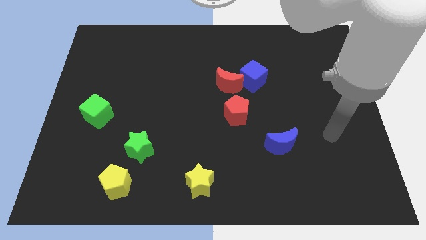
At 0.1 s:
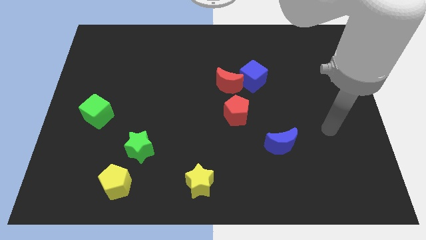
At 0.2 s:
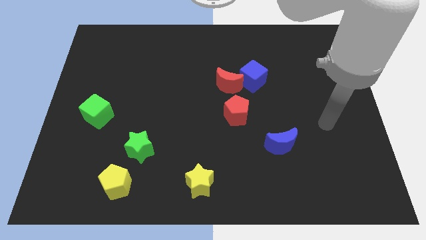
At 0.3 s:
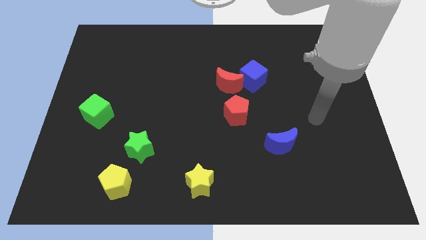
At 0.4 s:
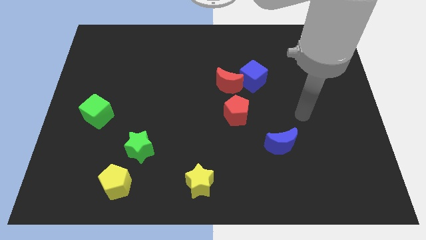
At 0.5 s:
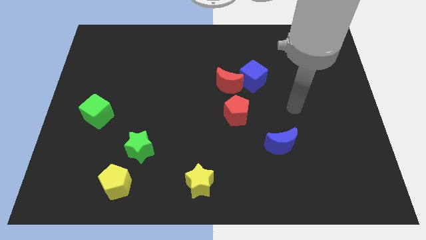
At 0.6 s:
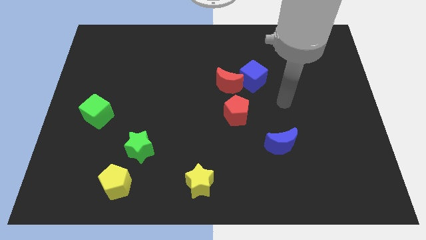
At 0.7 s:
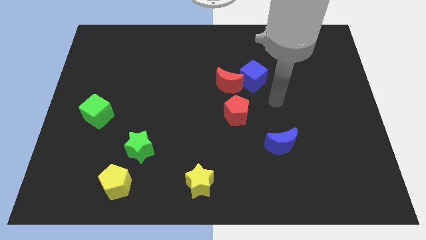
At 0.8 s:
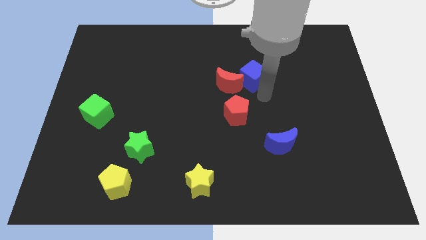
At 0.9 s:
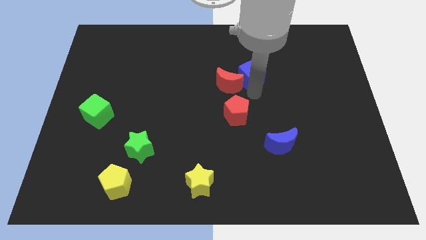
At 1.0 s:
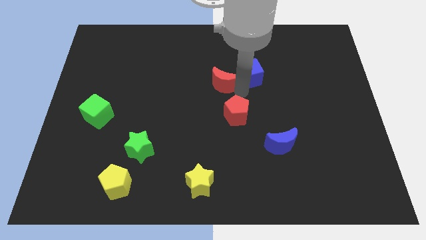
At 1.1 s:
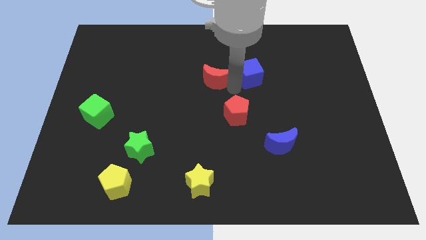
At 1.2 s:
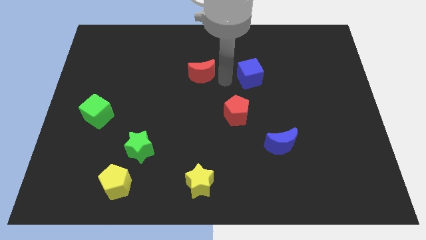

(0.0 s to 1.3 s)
separate the blue cube from the red moon

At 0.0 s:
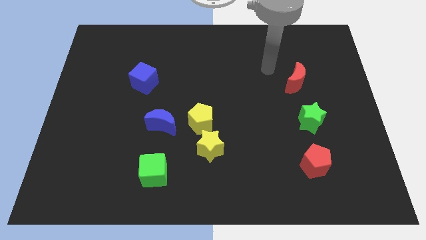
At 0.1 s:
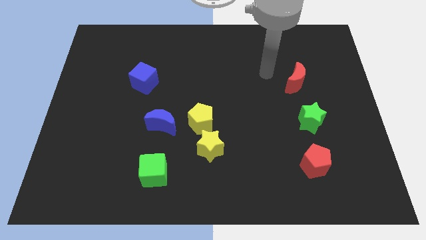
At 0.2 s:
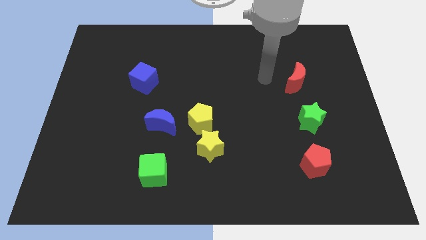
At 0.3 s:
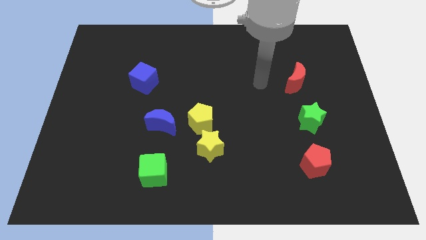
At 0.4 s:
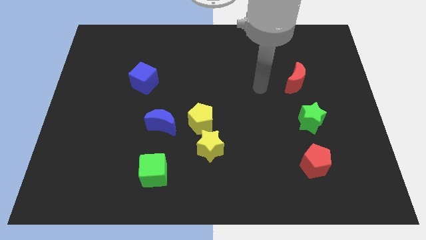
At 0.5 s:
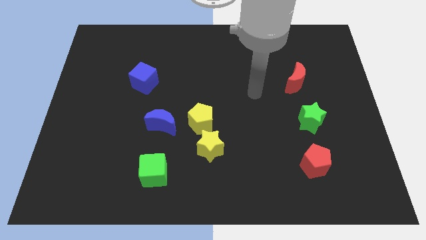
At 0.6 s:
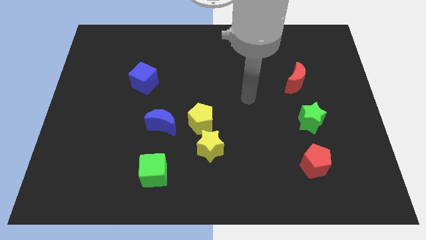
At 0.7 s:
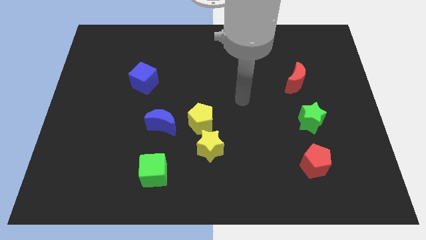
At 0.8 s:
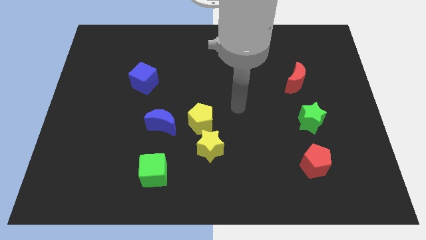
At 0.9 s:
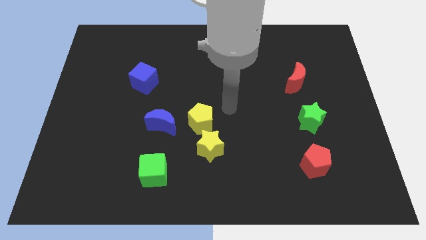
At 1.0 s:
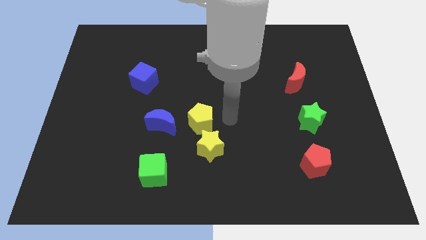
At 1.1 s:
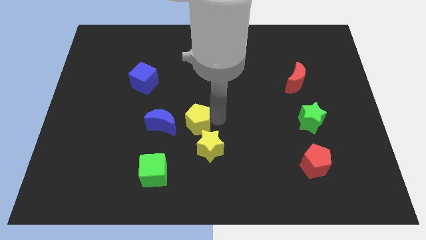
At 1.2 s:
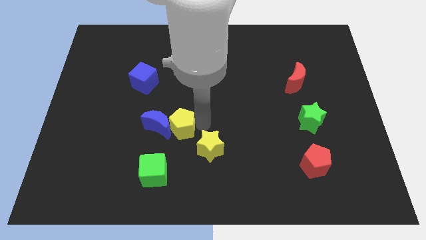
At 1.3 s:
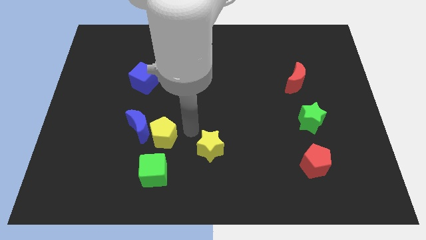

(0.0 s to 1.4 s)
move the yellow star away from the yellow pentagon

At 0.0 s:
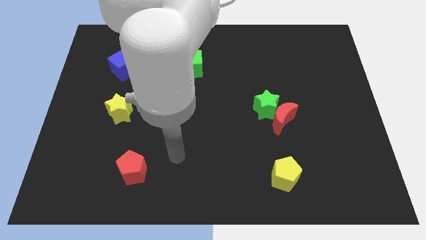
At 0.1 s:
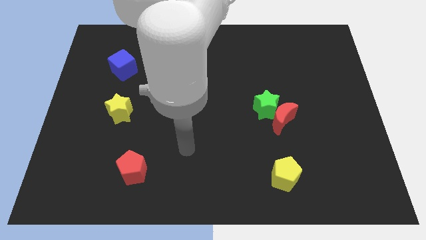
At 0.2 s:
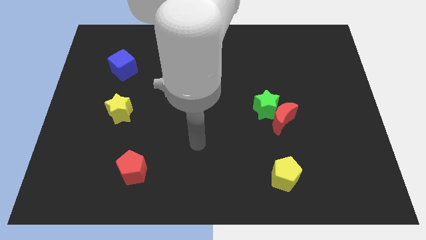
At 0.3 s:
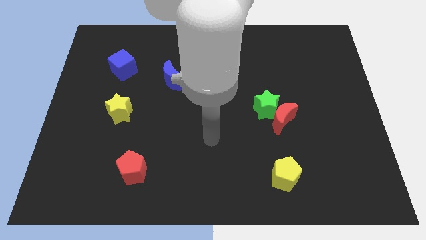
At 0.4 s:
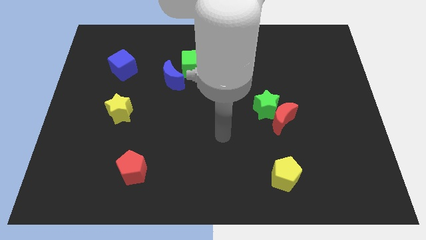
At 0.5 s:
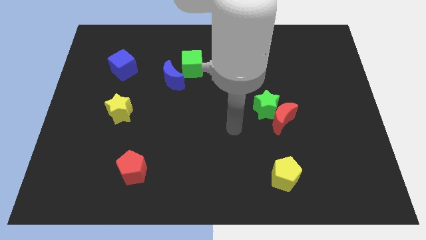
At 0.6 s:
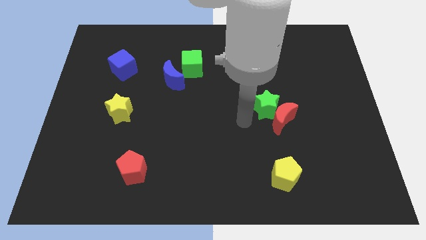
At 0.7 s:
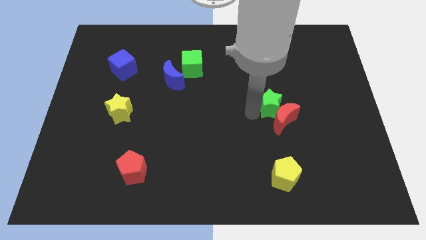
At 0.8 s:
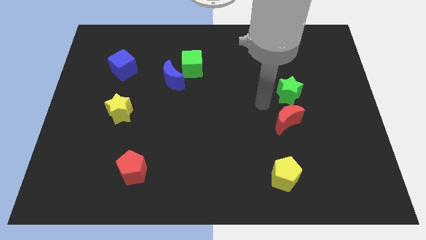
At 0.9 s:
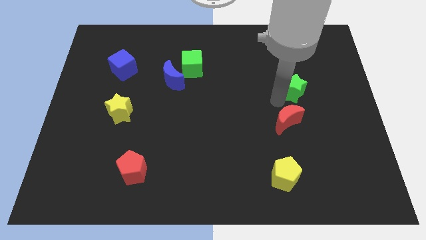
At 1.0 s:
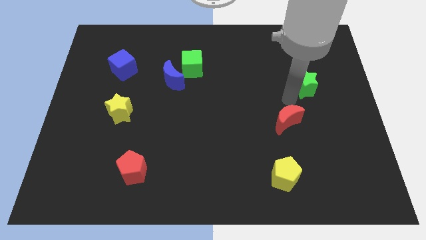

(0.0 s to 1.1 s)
move the red moon away from the green star

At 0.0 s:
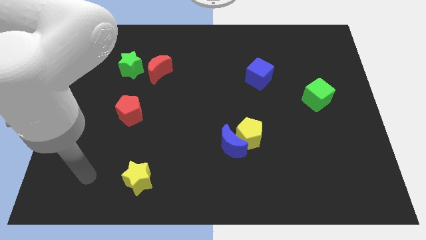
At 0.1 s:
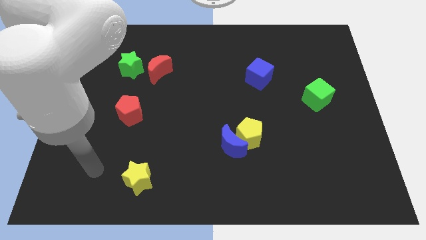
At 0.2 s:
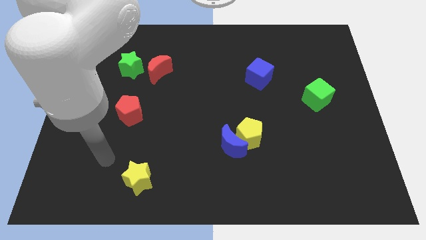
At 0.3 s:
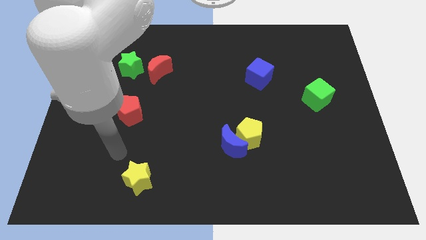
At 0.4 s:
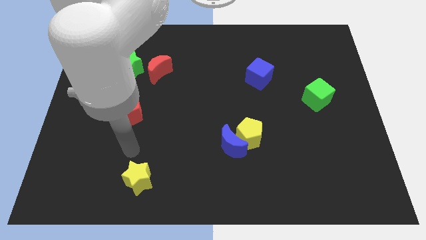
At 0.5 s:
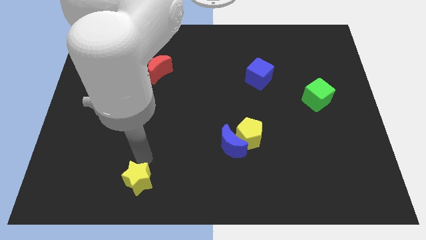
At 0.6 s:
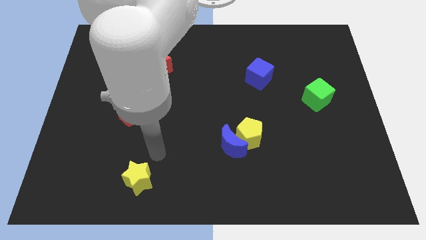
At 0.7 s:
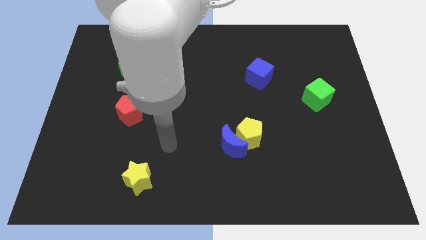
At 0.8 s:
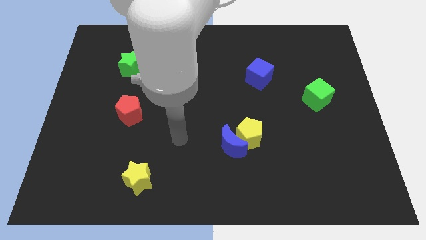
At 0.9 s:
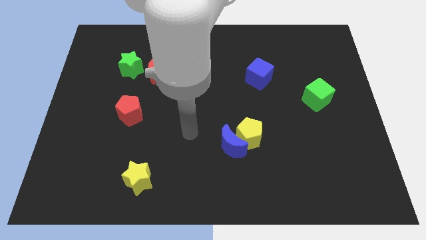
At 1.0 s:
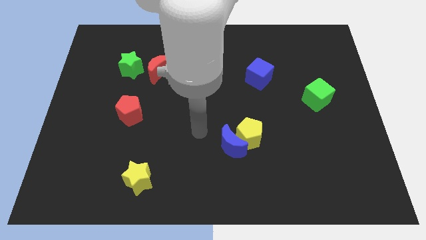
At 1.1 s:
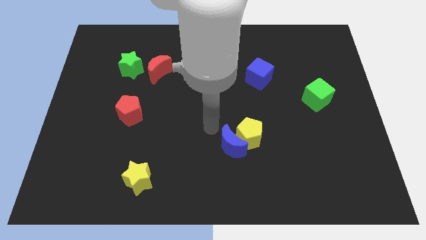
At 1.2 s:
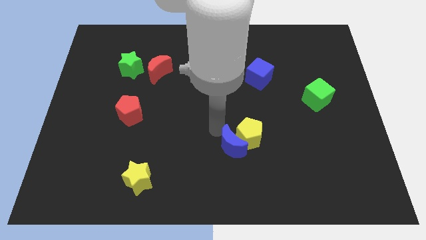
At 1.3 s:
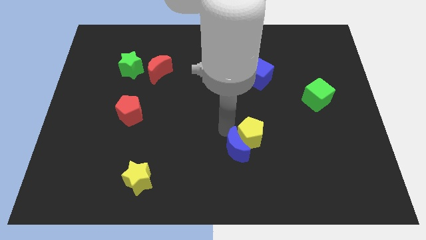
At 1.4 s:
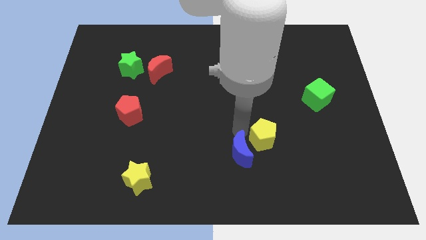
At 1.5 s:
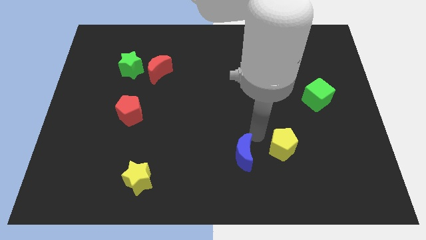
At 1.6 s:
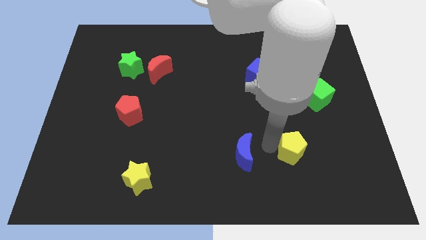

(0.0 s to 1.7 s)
pull the blue moon apart from the yellow pentagon

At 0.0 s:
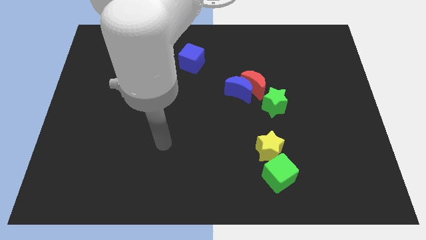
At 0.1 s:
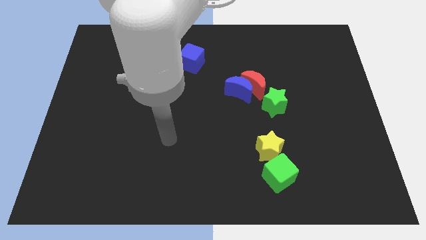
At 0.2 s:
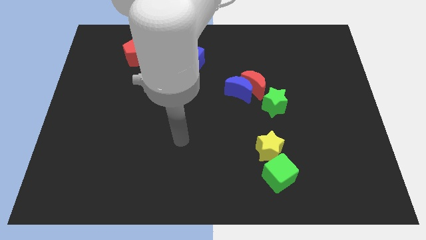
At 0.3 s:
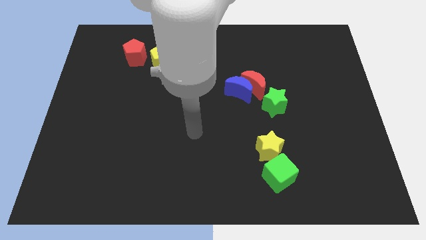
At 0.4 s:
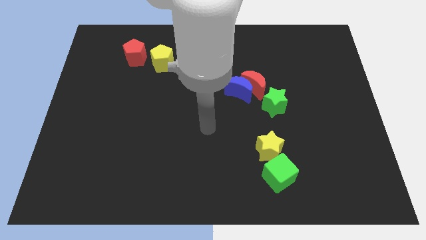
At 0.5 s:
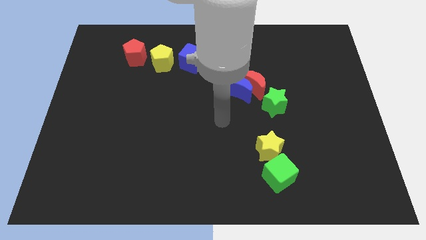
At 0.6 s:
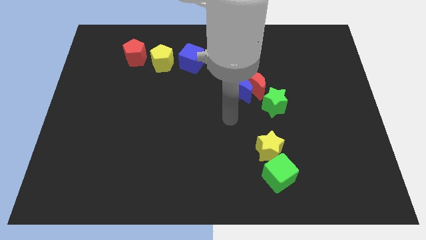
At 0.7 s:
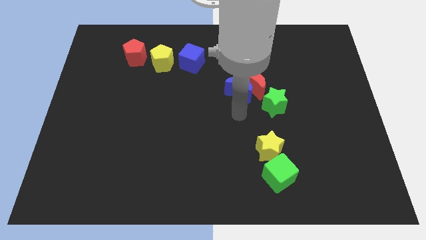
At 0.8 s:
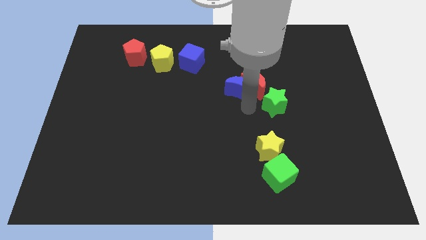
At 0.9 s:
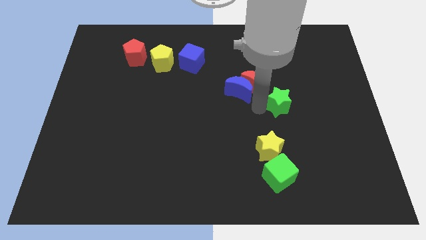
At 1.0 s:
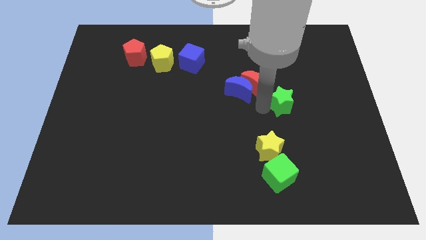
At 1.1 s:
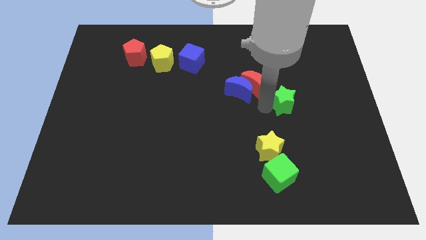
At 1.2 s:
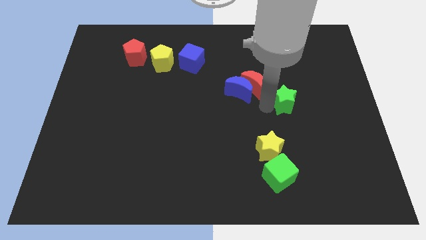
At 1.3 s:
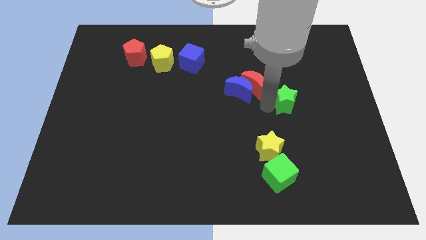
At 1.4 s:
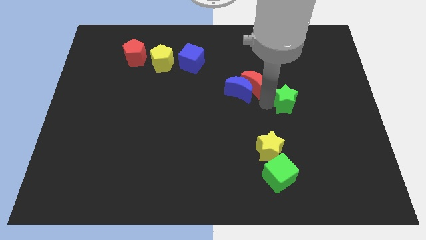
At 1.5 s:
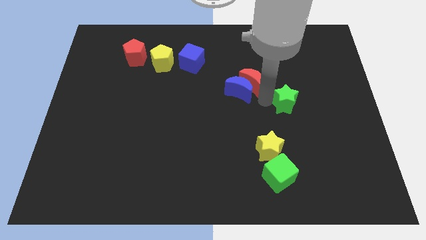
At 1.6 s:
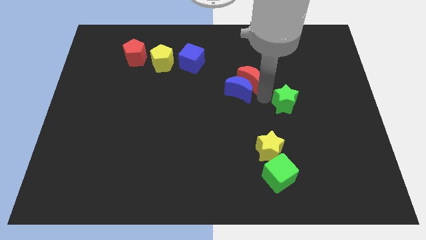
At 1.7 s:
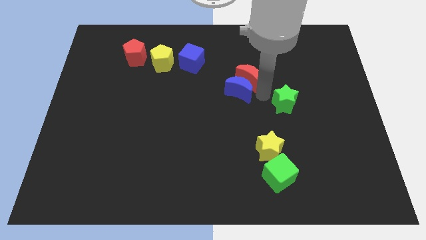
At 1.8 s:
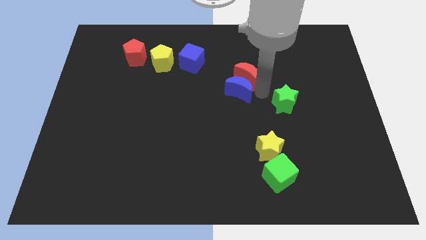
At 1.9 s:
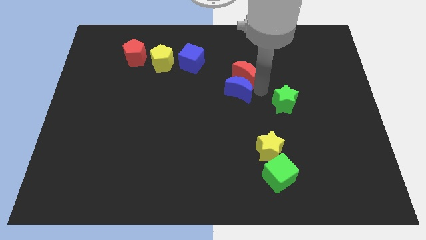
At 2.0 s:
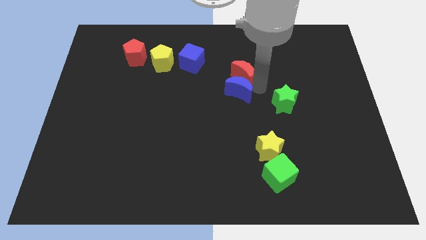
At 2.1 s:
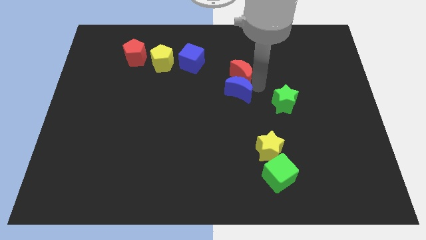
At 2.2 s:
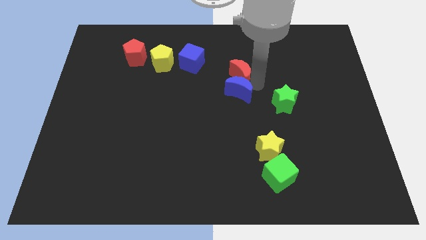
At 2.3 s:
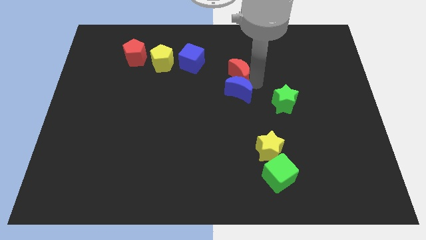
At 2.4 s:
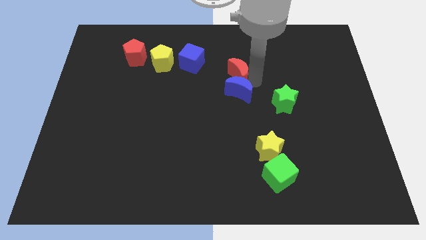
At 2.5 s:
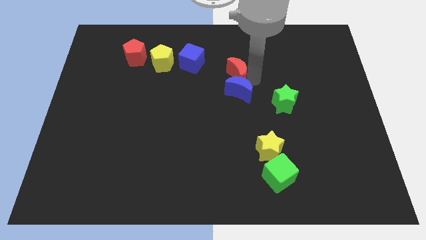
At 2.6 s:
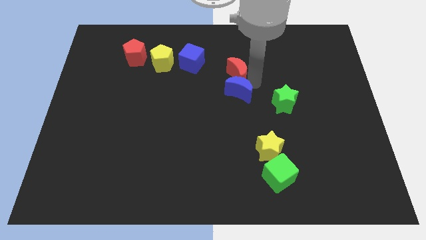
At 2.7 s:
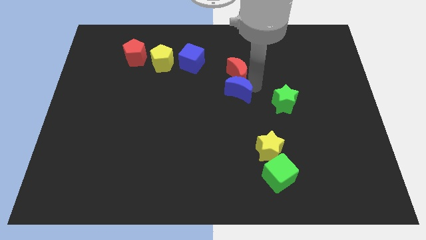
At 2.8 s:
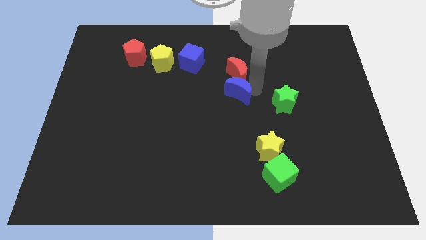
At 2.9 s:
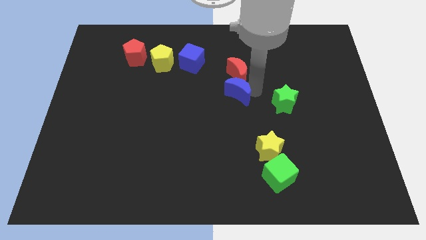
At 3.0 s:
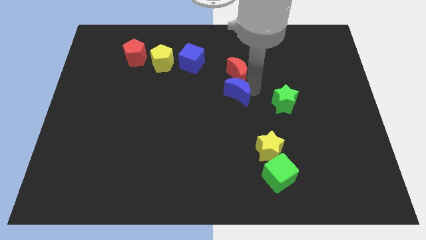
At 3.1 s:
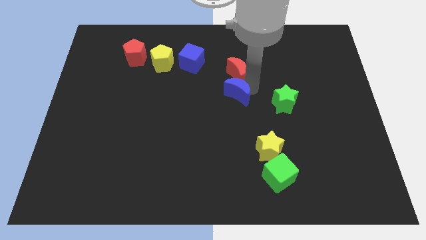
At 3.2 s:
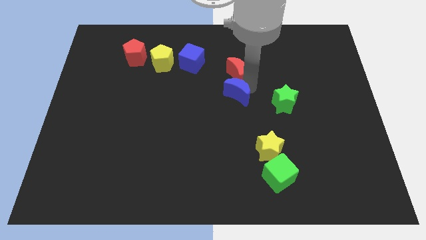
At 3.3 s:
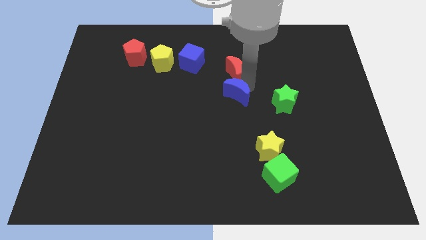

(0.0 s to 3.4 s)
pull the red moon apart from the blue moon and green star

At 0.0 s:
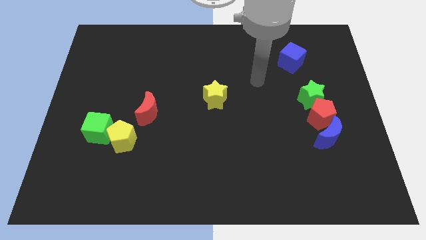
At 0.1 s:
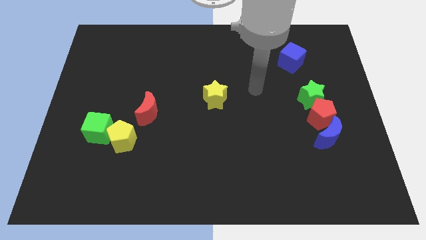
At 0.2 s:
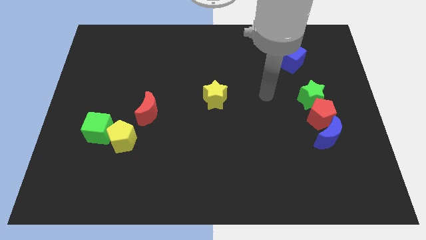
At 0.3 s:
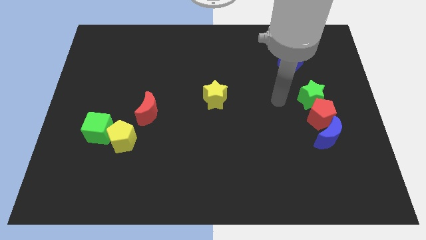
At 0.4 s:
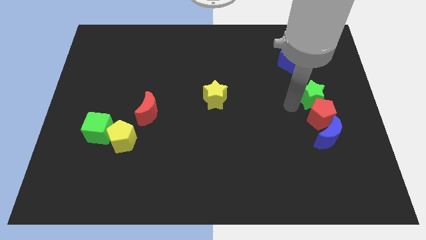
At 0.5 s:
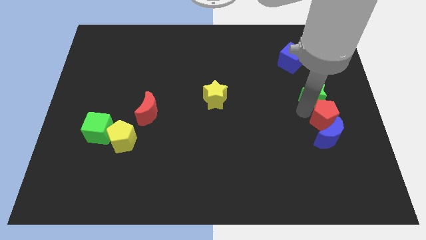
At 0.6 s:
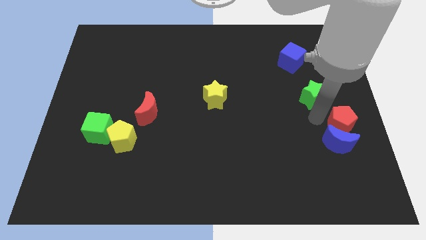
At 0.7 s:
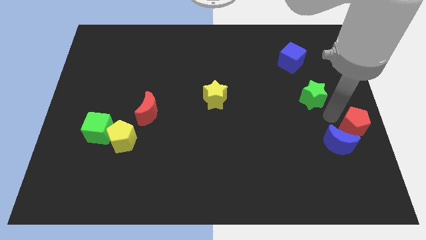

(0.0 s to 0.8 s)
pull the green star apart from the red pentagon
